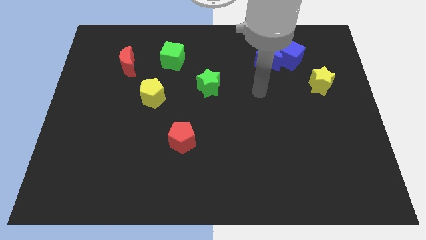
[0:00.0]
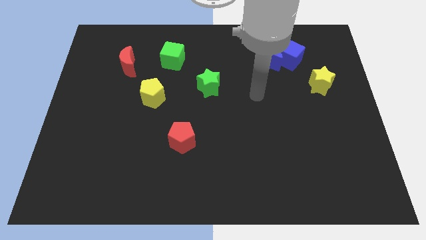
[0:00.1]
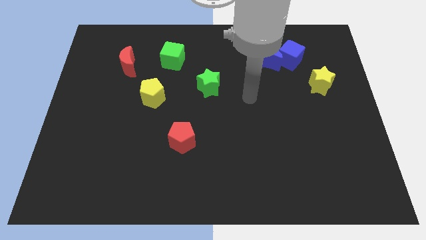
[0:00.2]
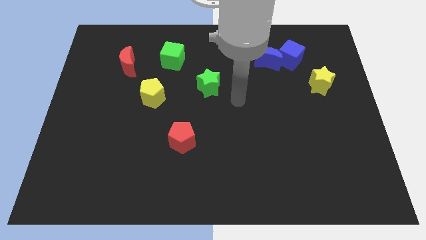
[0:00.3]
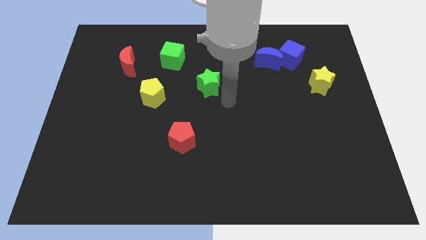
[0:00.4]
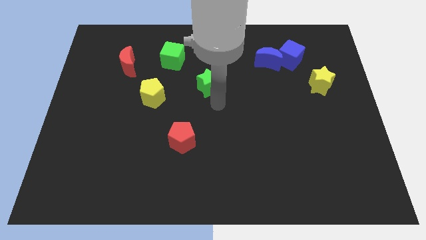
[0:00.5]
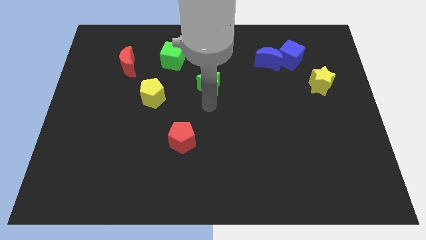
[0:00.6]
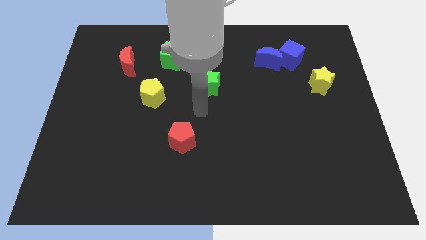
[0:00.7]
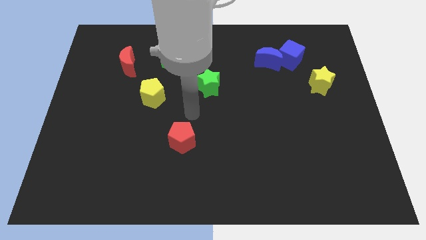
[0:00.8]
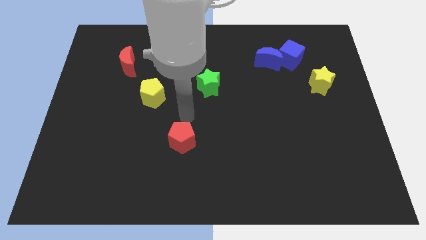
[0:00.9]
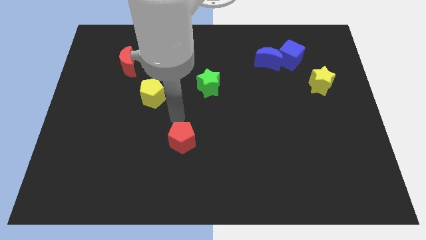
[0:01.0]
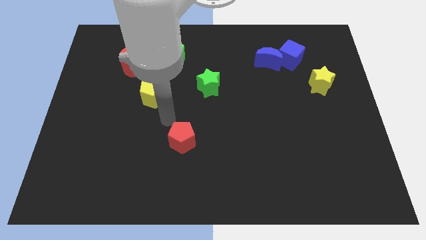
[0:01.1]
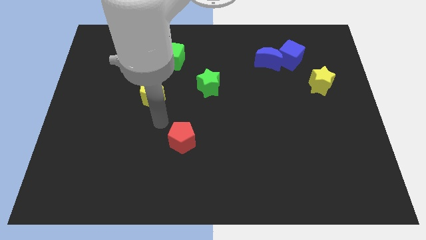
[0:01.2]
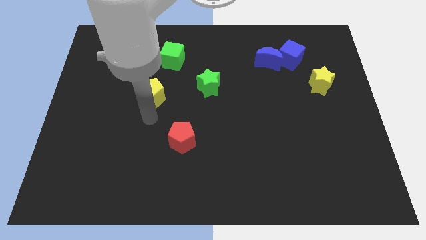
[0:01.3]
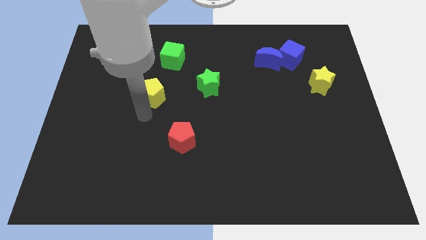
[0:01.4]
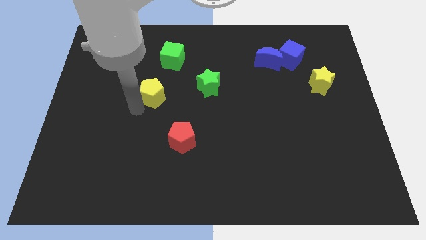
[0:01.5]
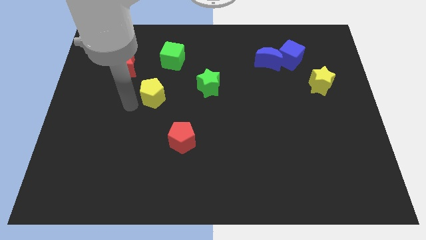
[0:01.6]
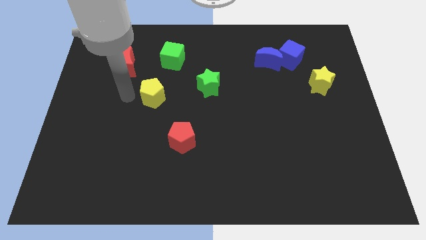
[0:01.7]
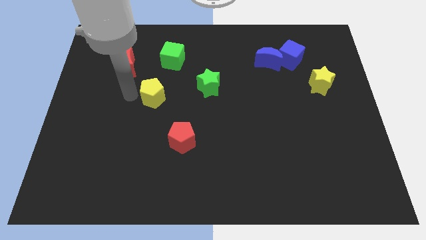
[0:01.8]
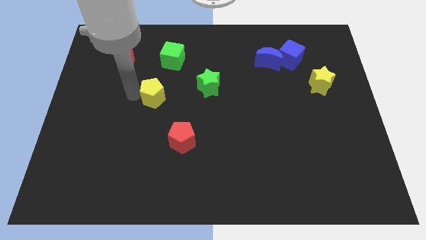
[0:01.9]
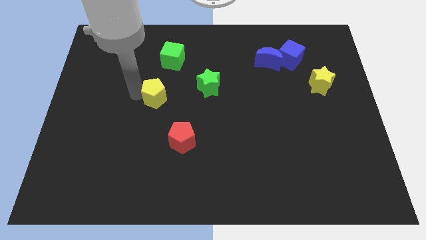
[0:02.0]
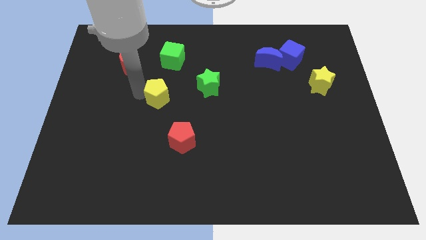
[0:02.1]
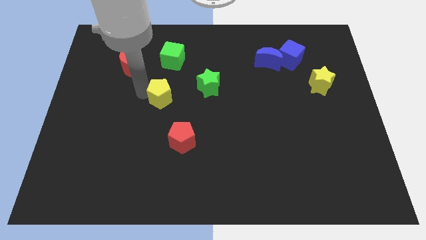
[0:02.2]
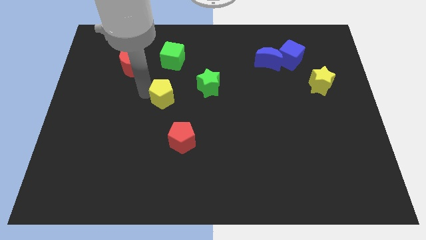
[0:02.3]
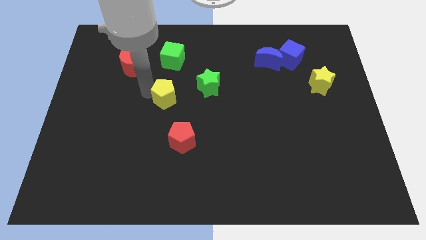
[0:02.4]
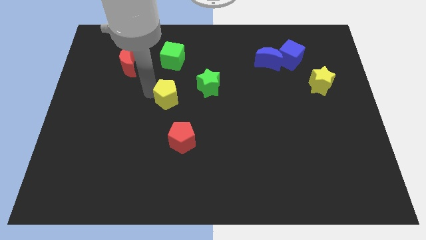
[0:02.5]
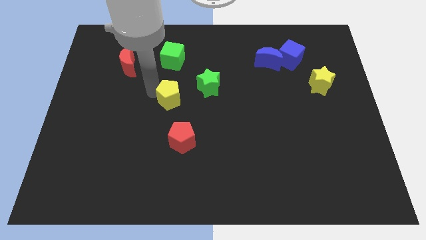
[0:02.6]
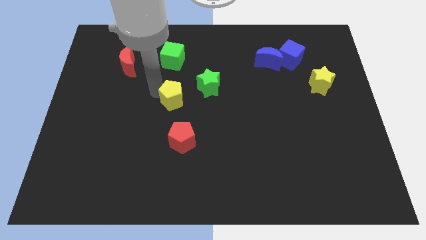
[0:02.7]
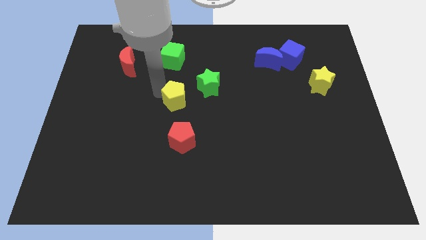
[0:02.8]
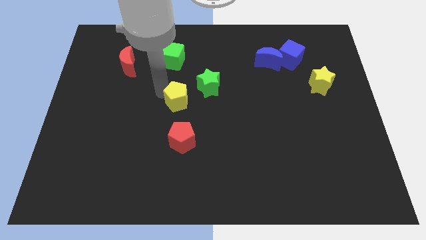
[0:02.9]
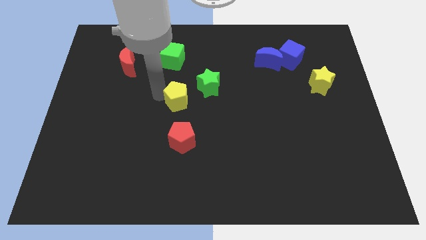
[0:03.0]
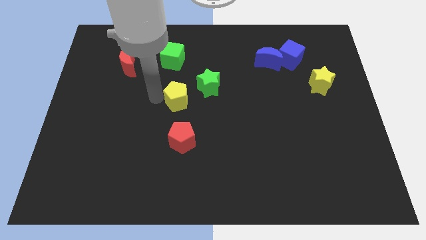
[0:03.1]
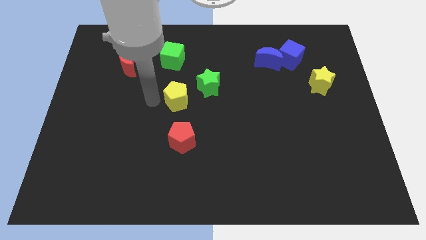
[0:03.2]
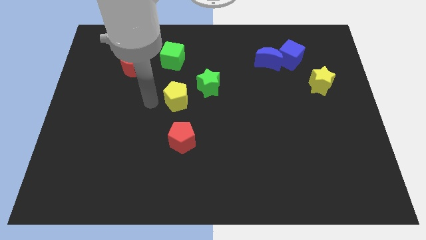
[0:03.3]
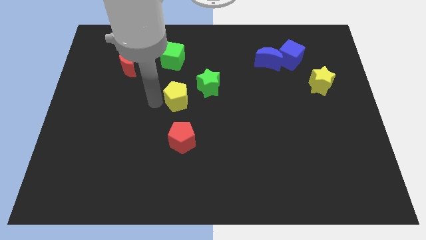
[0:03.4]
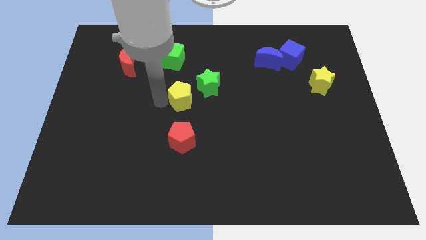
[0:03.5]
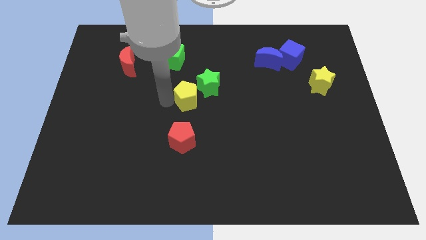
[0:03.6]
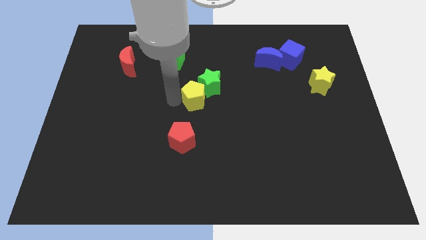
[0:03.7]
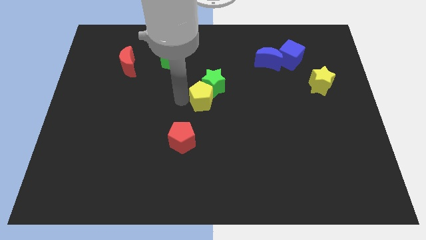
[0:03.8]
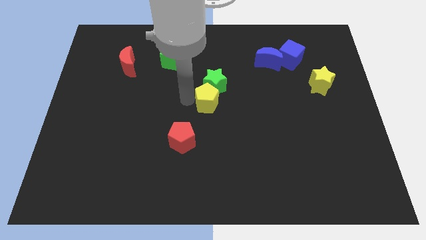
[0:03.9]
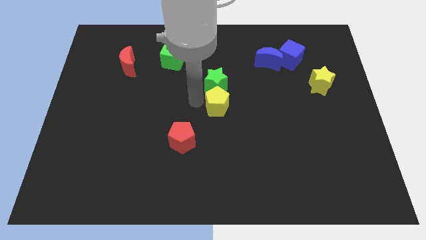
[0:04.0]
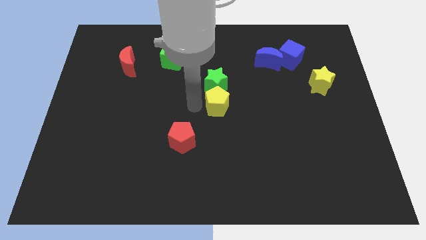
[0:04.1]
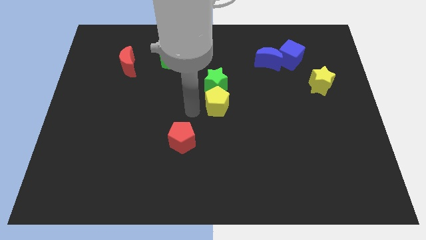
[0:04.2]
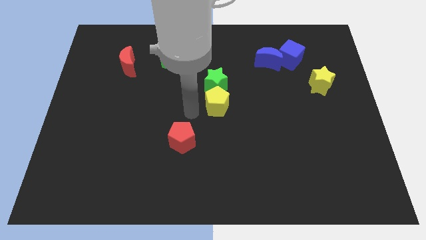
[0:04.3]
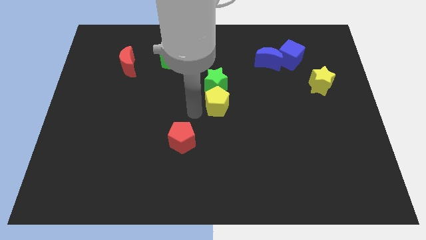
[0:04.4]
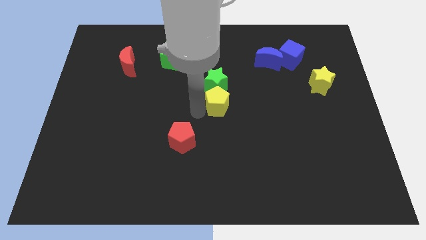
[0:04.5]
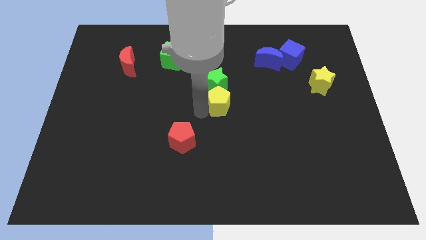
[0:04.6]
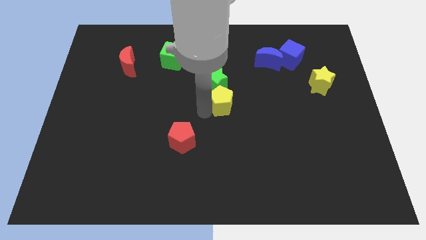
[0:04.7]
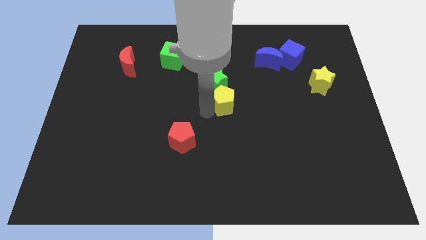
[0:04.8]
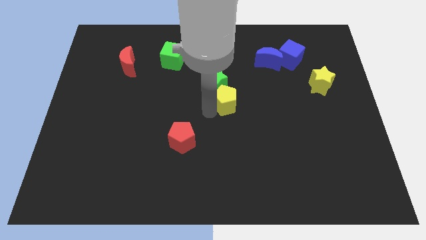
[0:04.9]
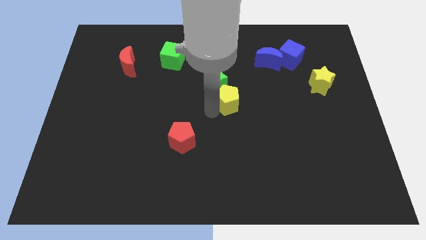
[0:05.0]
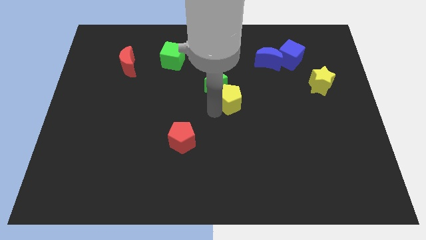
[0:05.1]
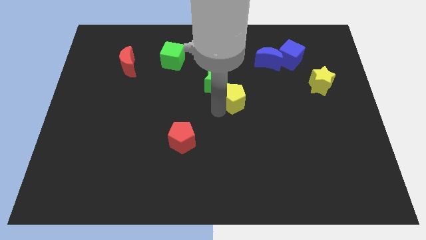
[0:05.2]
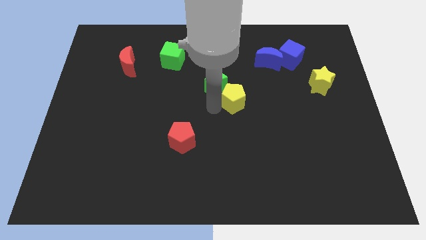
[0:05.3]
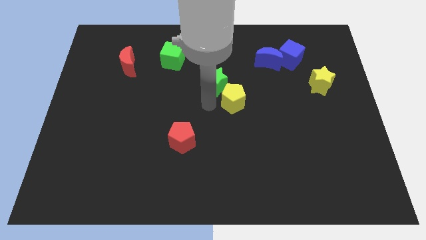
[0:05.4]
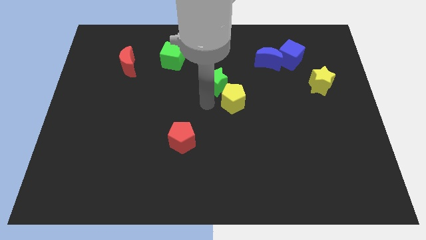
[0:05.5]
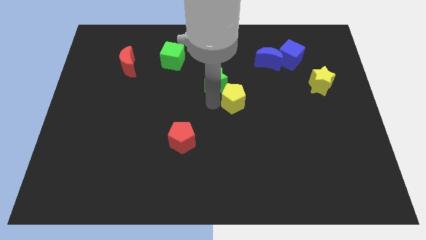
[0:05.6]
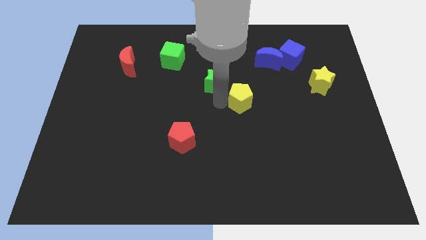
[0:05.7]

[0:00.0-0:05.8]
move the yellow pentagon right

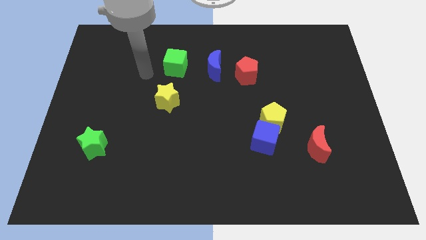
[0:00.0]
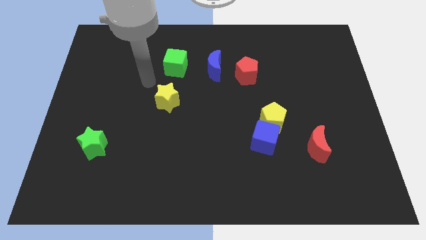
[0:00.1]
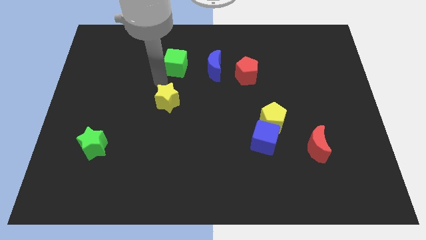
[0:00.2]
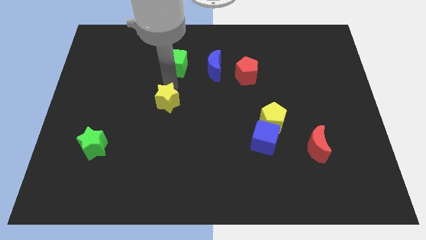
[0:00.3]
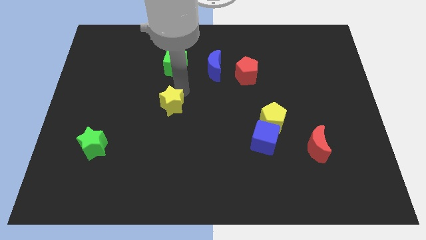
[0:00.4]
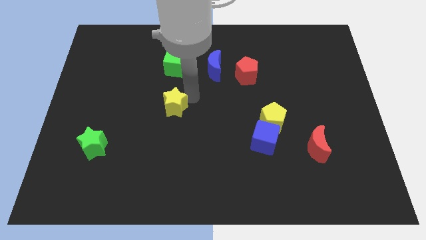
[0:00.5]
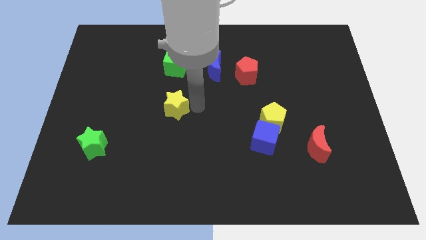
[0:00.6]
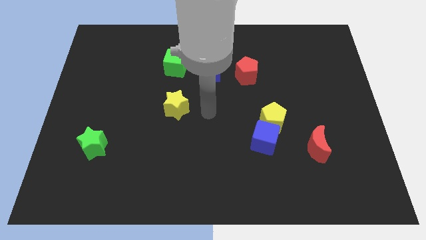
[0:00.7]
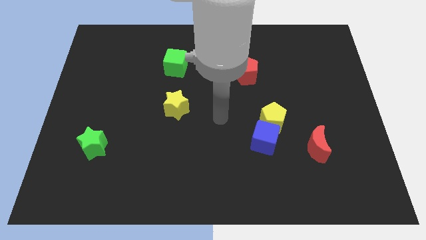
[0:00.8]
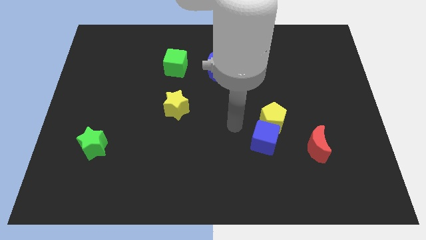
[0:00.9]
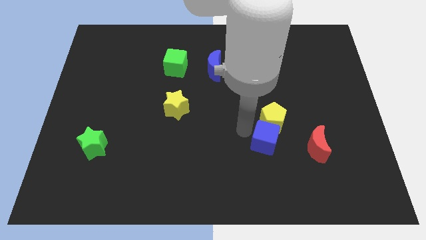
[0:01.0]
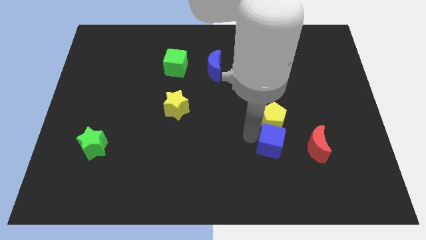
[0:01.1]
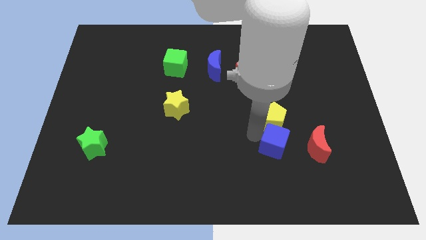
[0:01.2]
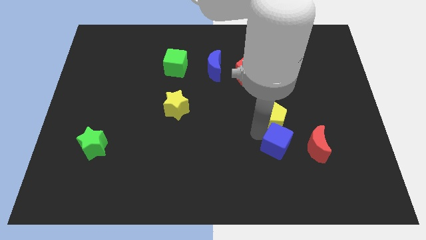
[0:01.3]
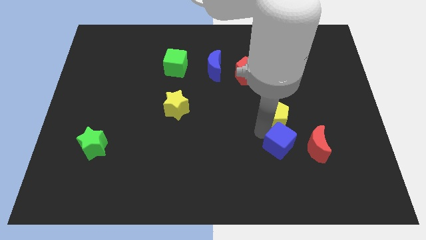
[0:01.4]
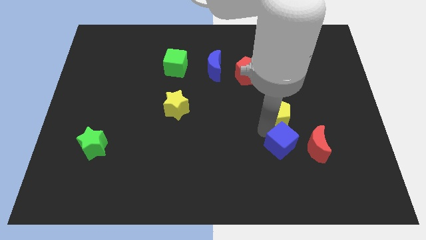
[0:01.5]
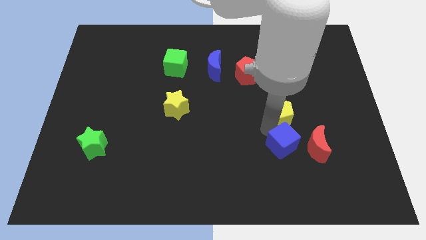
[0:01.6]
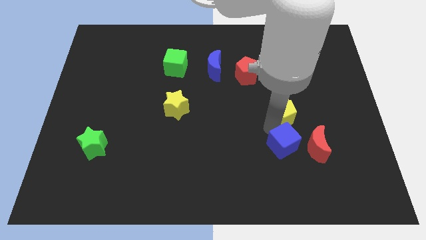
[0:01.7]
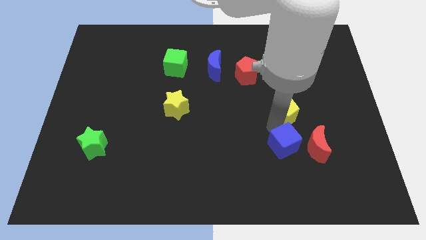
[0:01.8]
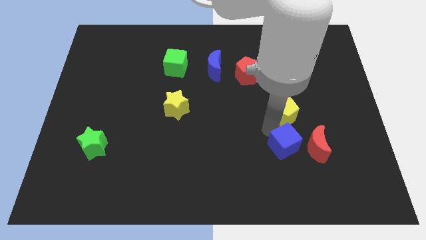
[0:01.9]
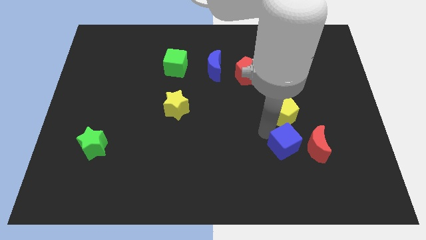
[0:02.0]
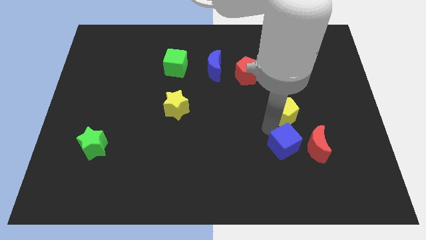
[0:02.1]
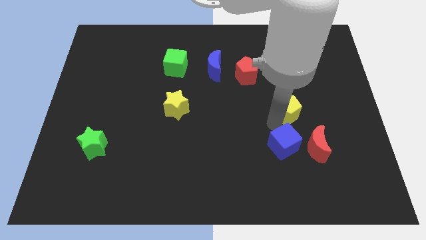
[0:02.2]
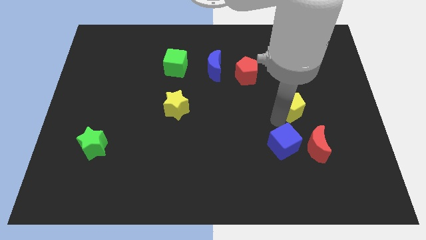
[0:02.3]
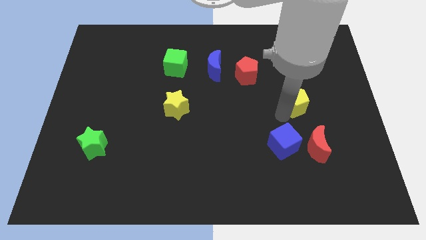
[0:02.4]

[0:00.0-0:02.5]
push the yellow pentagon slightly diagonally up and to the right
